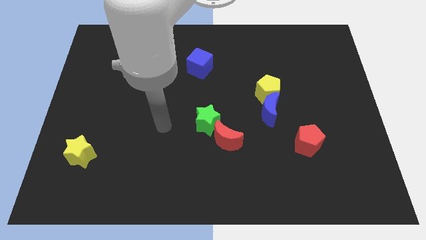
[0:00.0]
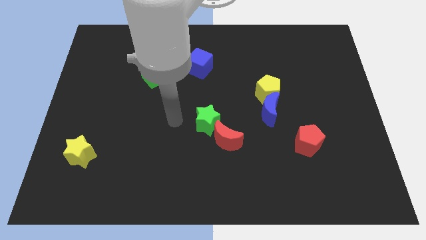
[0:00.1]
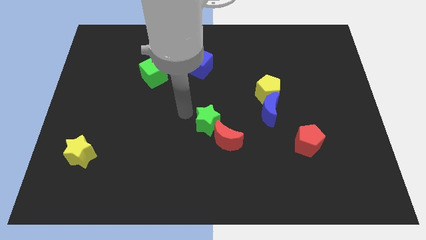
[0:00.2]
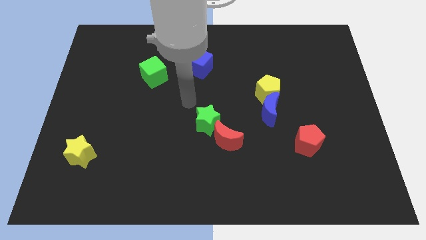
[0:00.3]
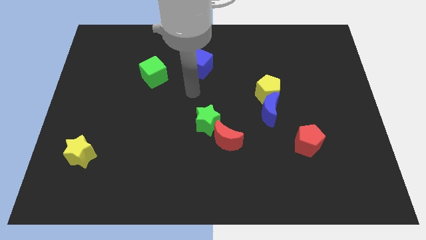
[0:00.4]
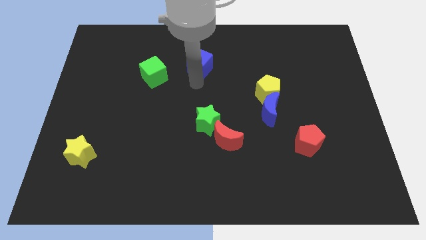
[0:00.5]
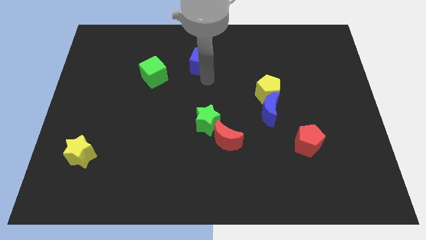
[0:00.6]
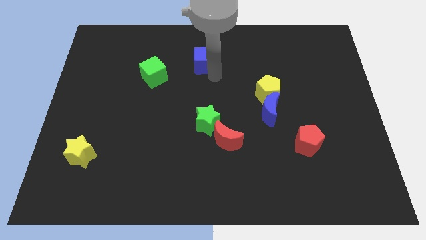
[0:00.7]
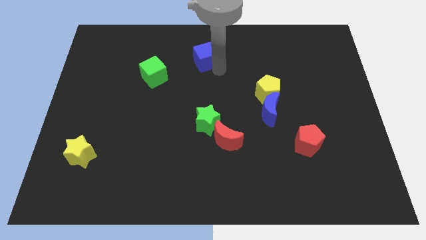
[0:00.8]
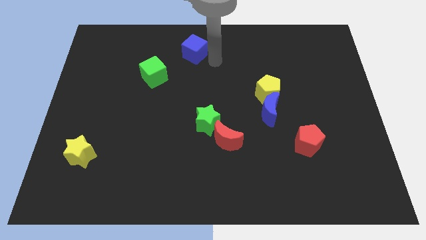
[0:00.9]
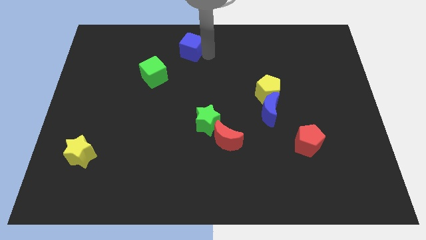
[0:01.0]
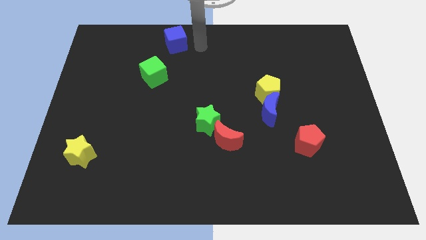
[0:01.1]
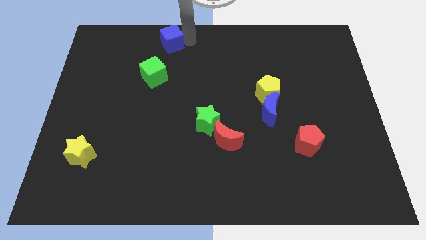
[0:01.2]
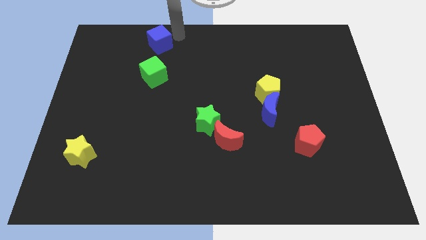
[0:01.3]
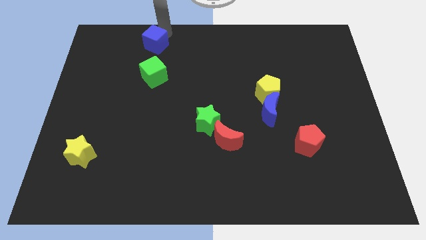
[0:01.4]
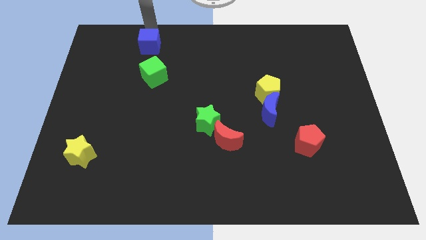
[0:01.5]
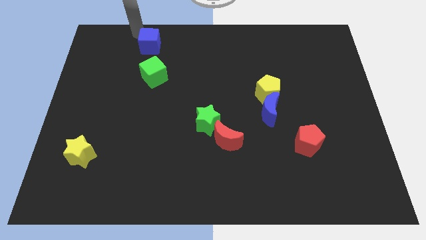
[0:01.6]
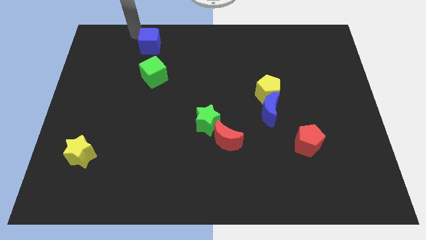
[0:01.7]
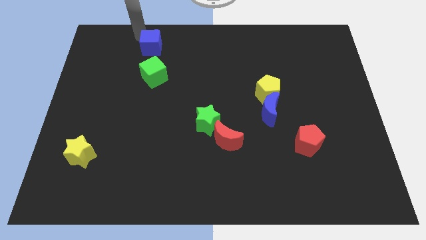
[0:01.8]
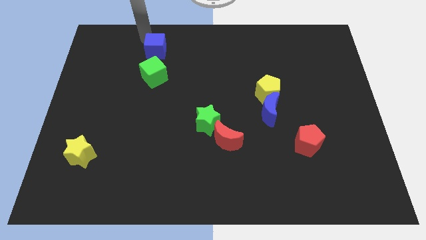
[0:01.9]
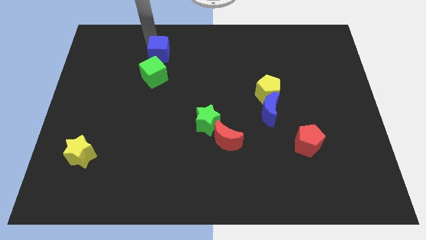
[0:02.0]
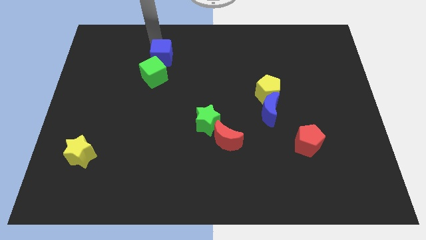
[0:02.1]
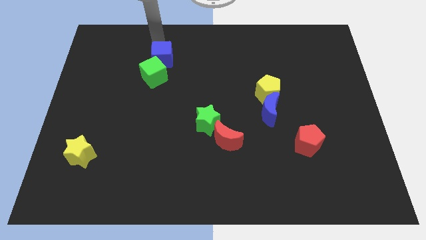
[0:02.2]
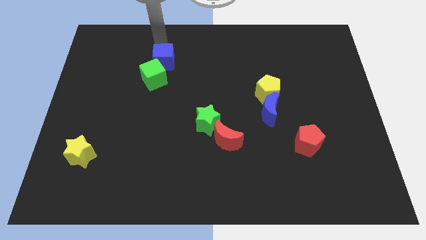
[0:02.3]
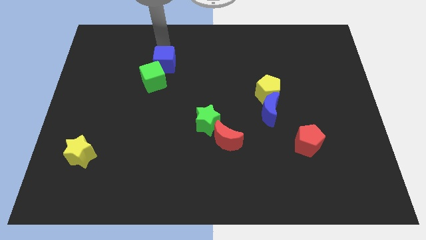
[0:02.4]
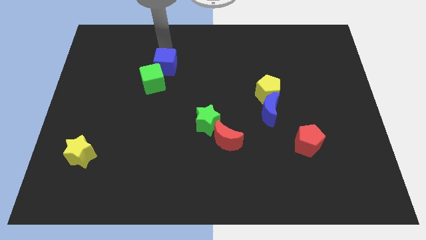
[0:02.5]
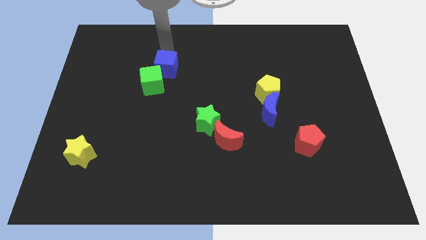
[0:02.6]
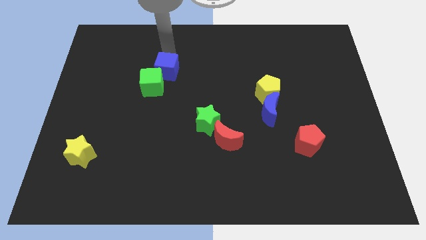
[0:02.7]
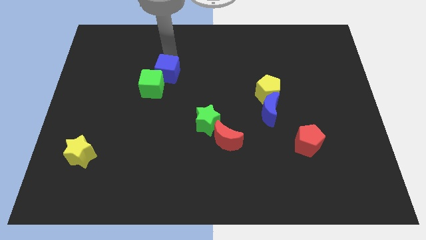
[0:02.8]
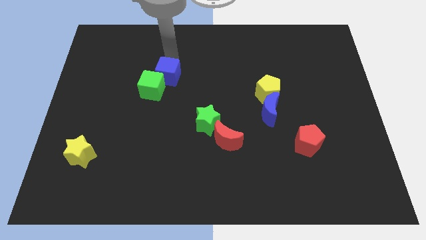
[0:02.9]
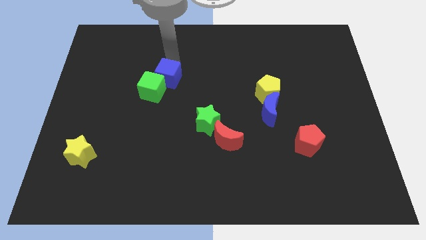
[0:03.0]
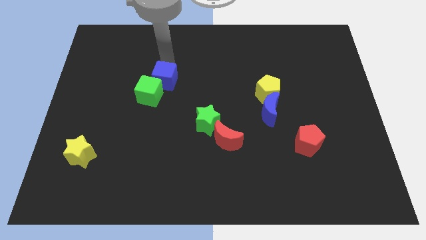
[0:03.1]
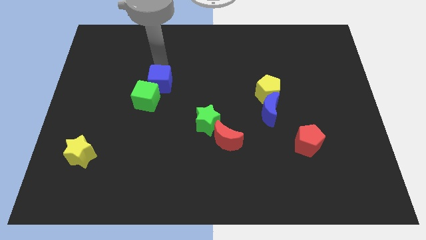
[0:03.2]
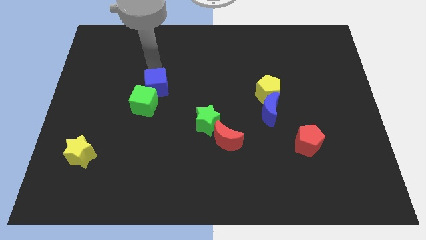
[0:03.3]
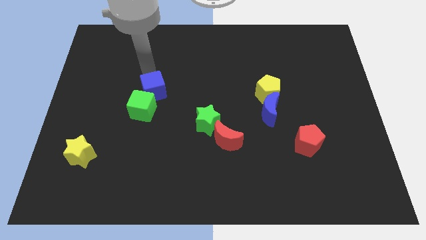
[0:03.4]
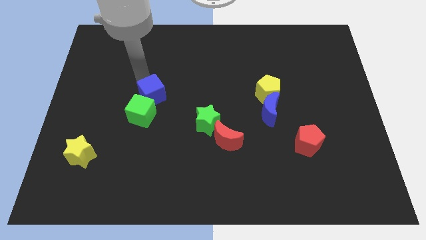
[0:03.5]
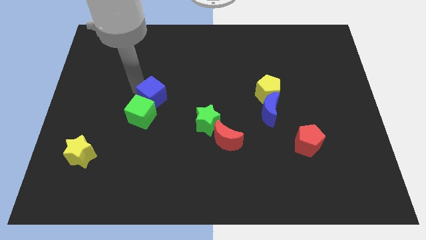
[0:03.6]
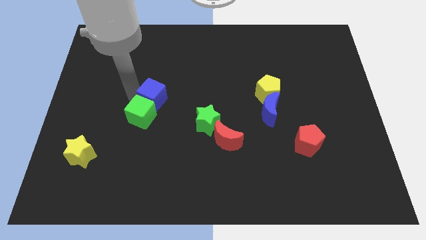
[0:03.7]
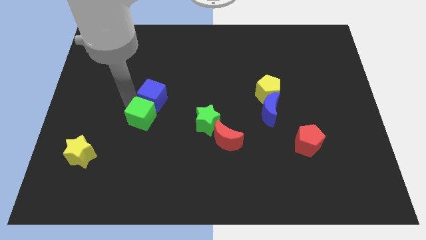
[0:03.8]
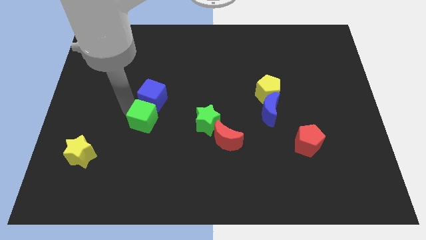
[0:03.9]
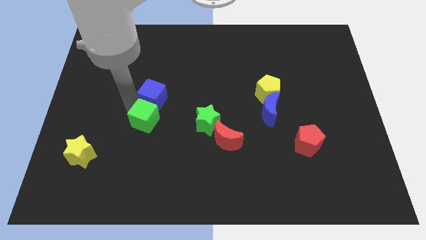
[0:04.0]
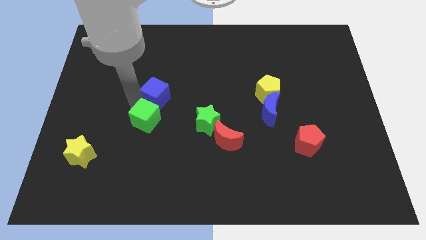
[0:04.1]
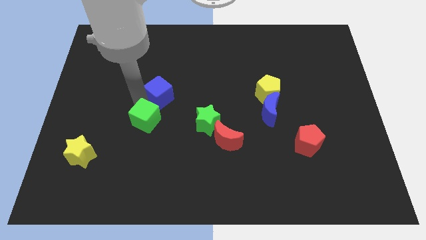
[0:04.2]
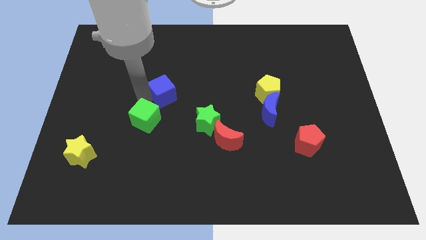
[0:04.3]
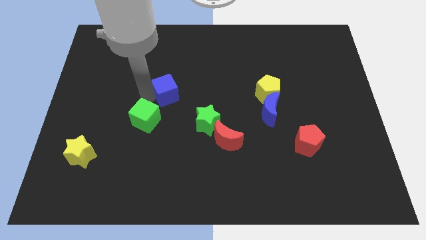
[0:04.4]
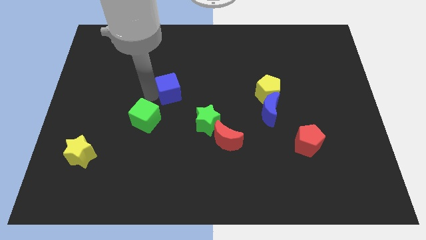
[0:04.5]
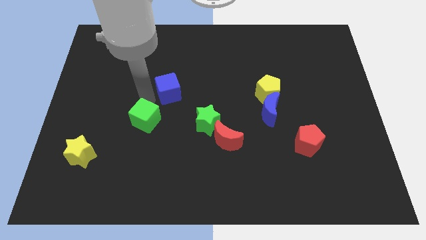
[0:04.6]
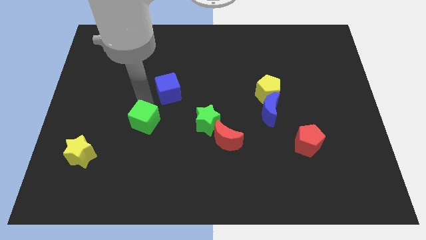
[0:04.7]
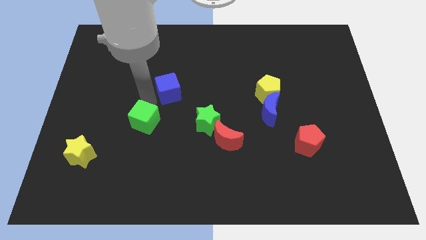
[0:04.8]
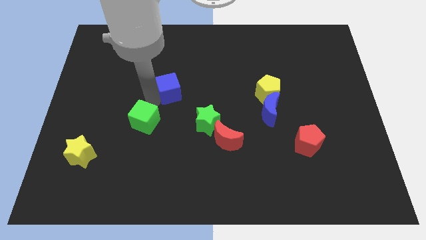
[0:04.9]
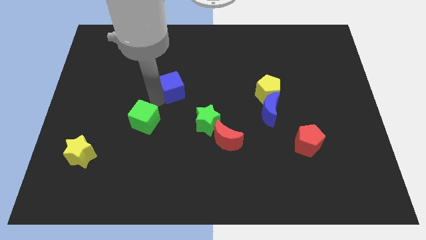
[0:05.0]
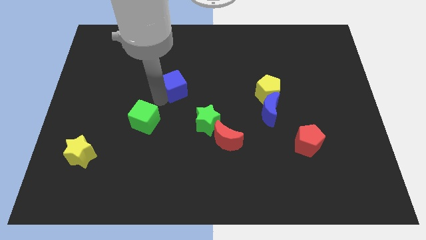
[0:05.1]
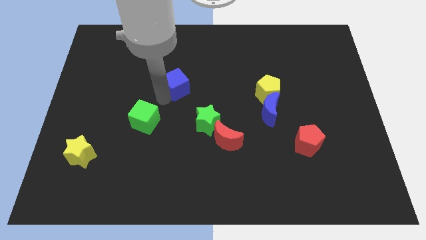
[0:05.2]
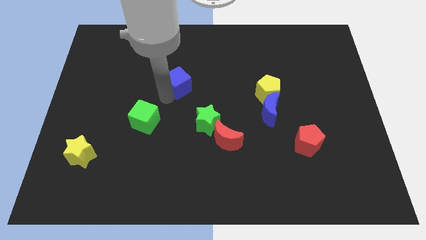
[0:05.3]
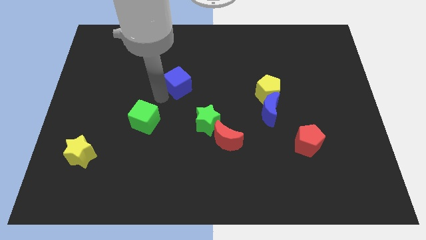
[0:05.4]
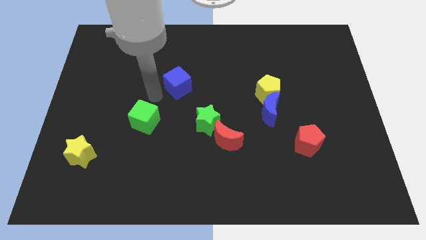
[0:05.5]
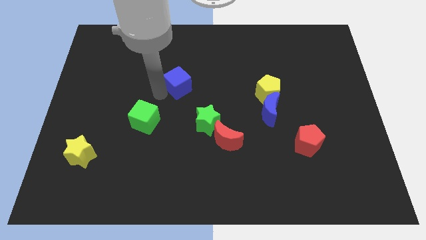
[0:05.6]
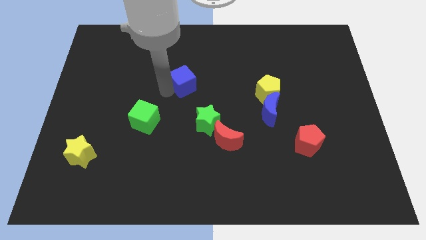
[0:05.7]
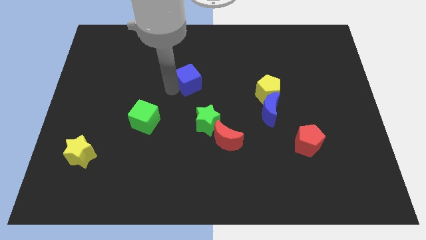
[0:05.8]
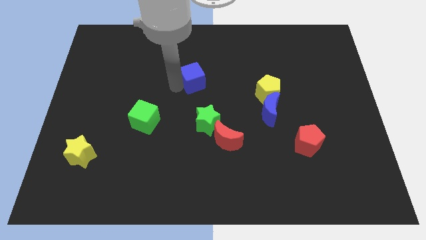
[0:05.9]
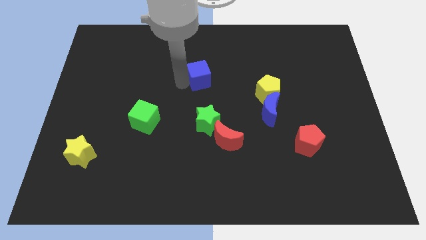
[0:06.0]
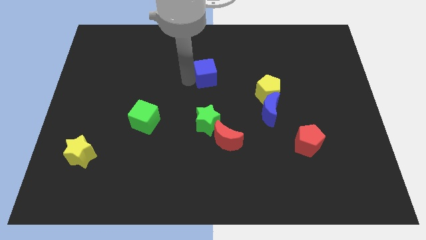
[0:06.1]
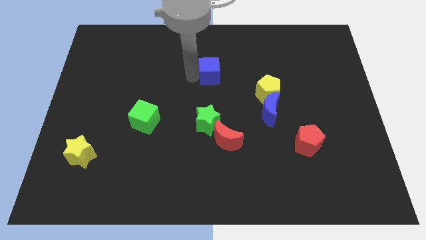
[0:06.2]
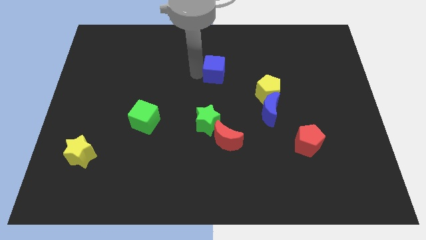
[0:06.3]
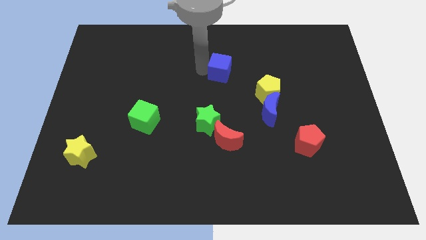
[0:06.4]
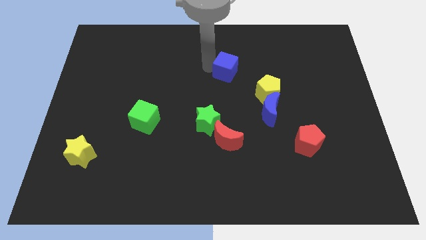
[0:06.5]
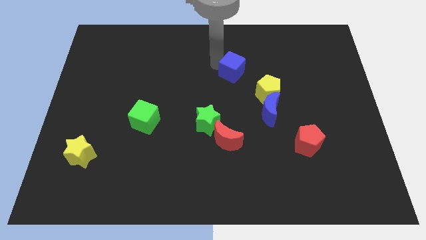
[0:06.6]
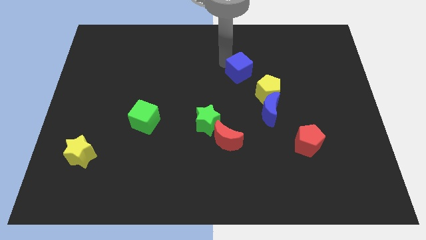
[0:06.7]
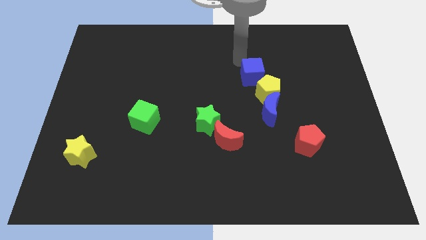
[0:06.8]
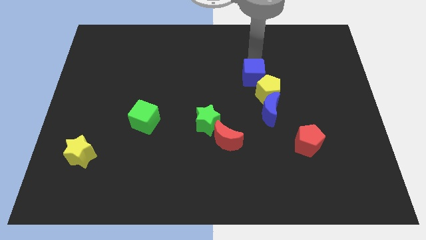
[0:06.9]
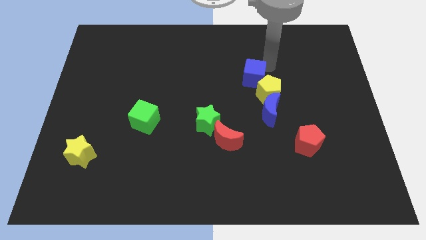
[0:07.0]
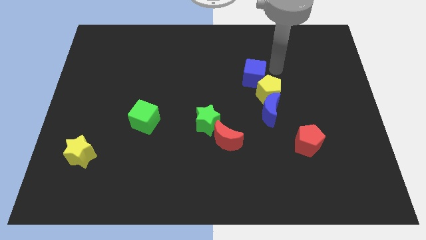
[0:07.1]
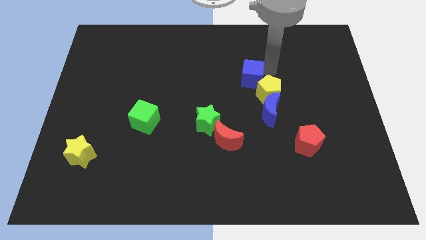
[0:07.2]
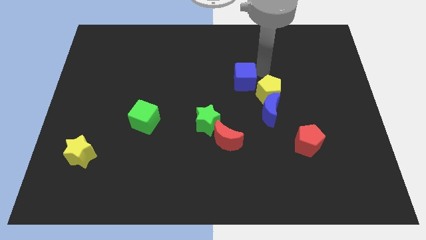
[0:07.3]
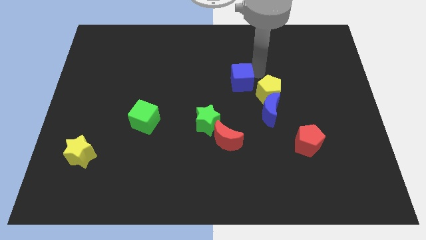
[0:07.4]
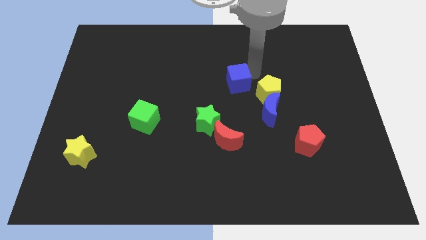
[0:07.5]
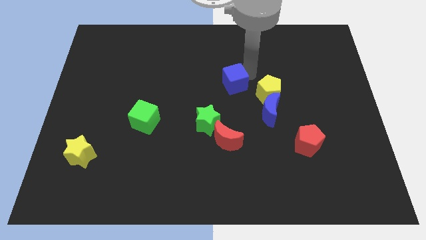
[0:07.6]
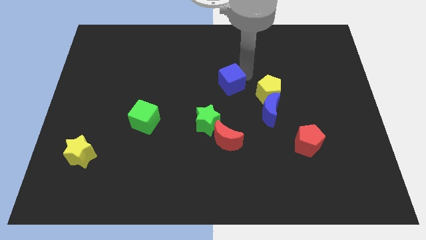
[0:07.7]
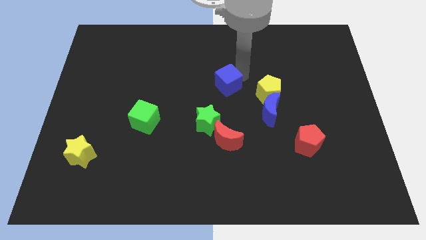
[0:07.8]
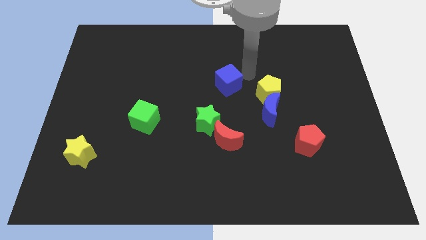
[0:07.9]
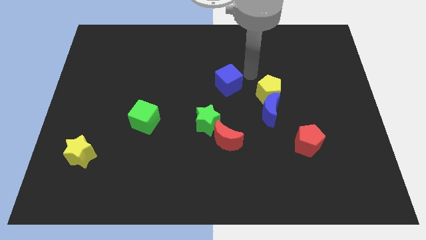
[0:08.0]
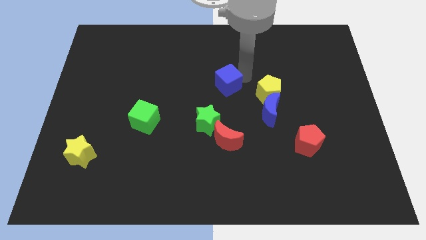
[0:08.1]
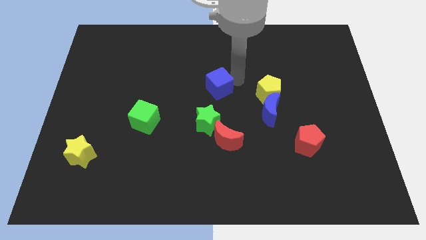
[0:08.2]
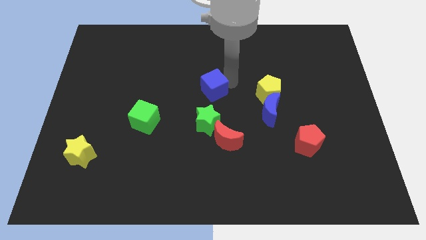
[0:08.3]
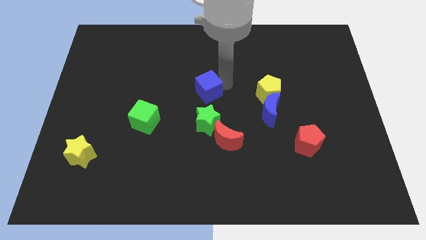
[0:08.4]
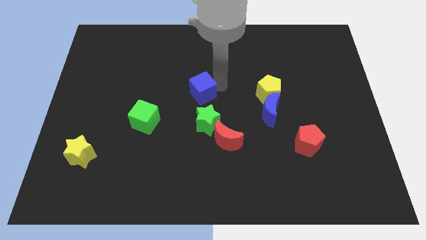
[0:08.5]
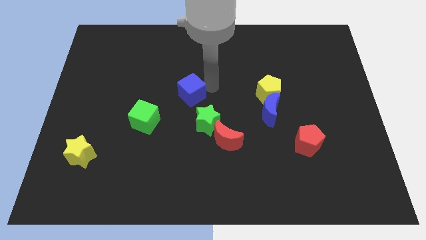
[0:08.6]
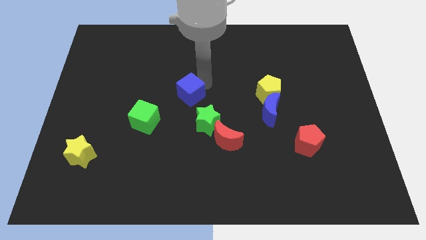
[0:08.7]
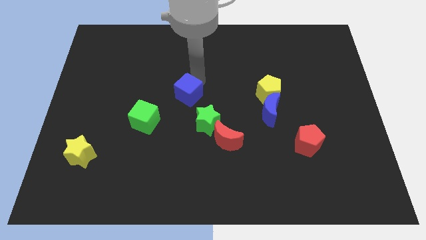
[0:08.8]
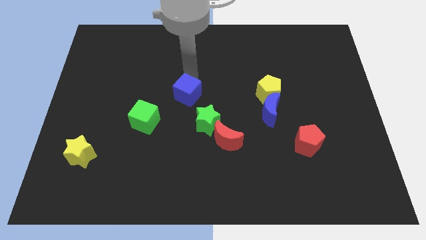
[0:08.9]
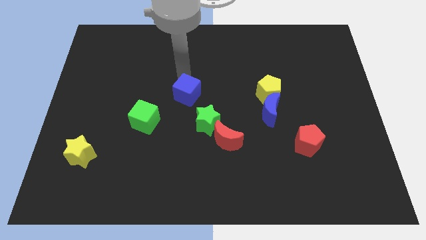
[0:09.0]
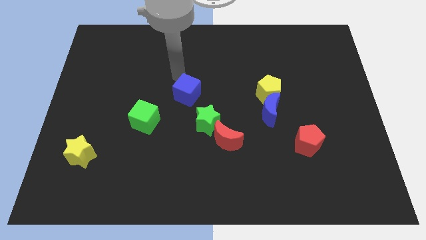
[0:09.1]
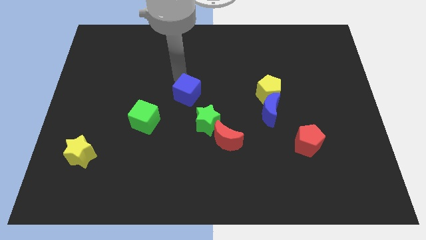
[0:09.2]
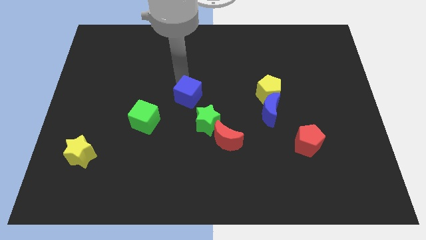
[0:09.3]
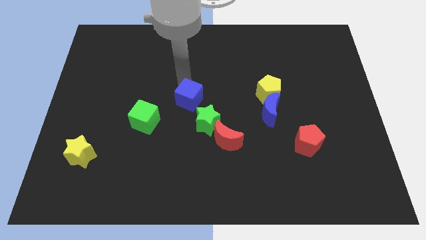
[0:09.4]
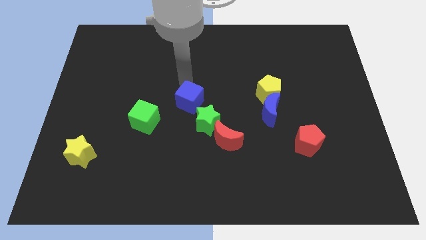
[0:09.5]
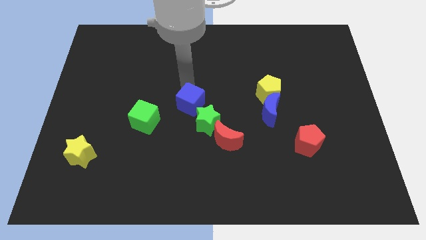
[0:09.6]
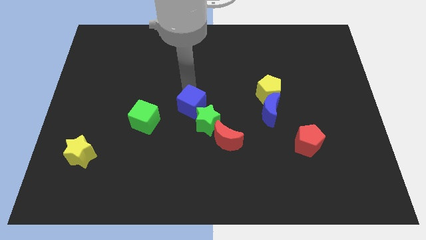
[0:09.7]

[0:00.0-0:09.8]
push the blue cube to the top left of the red moon
